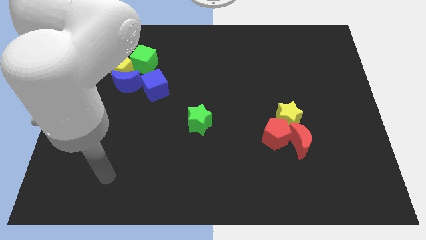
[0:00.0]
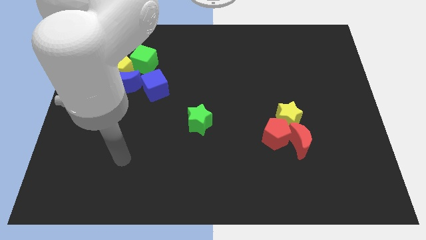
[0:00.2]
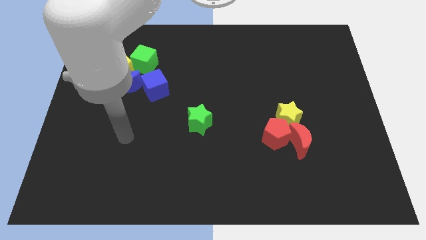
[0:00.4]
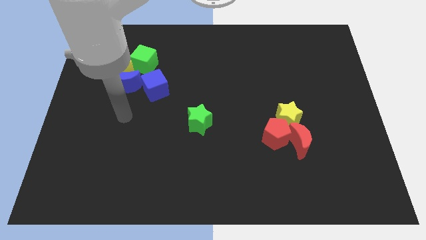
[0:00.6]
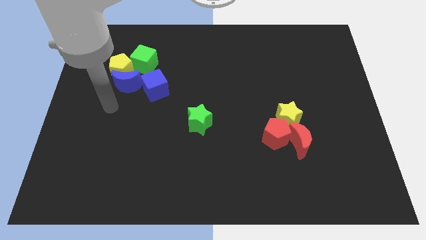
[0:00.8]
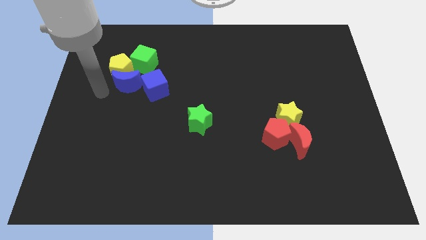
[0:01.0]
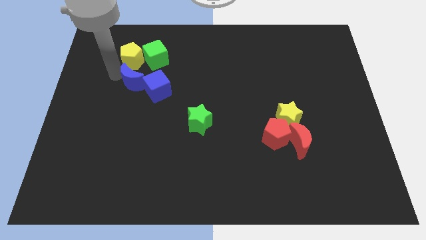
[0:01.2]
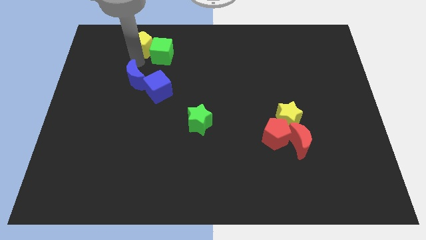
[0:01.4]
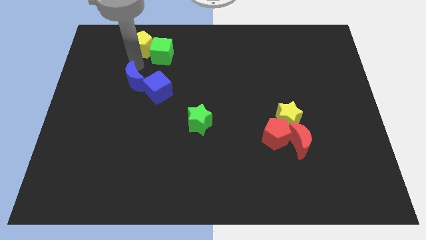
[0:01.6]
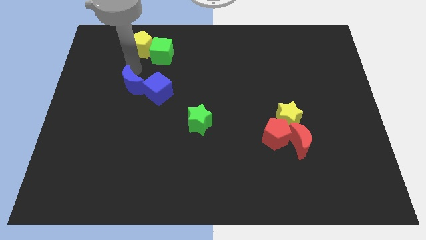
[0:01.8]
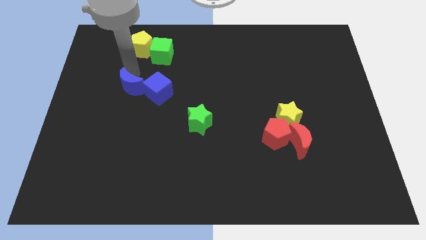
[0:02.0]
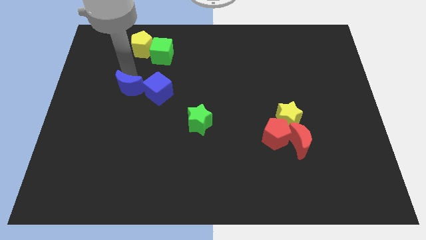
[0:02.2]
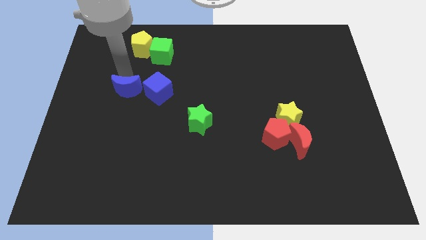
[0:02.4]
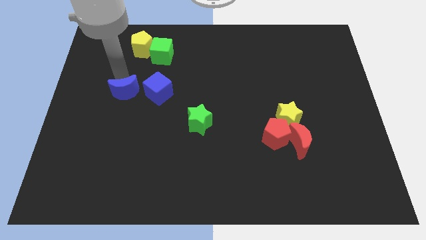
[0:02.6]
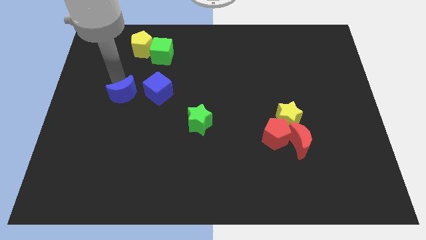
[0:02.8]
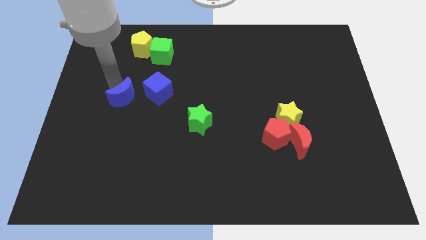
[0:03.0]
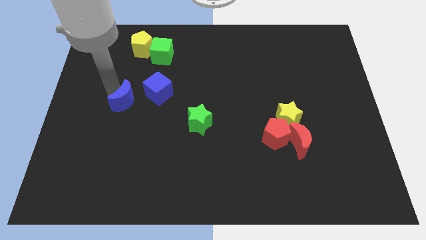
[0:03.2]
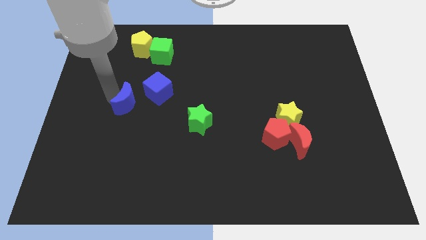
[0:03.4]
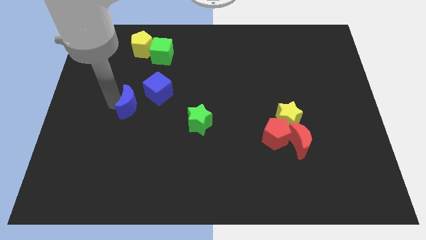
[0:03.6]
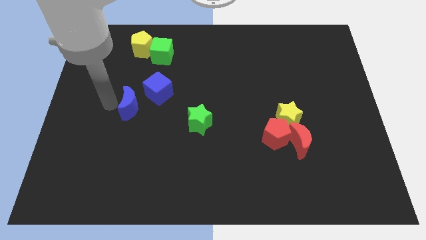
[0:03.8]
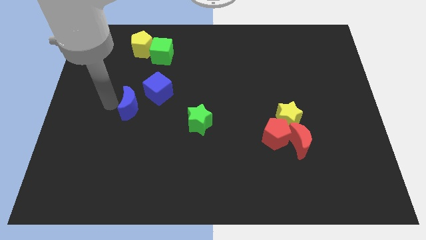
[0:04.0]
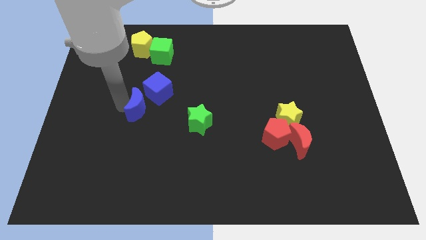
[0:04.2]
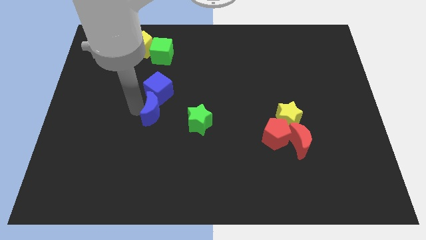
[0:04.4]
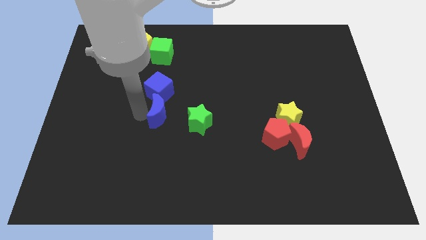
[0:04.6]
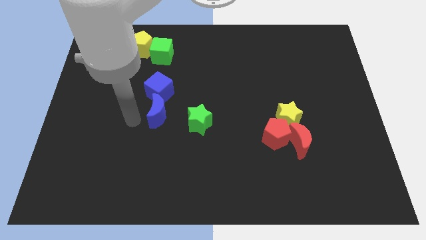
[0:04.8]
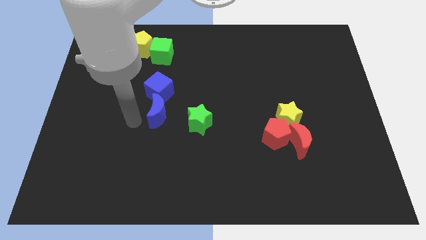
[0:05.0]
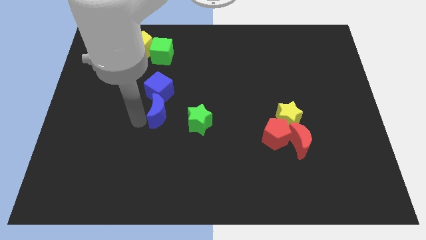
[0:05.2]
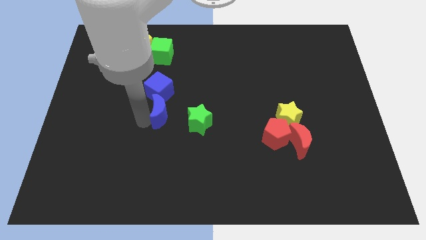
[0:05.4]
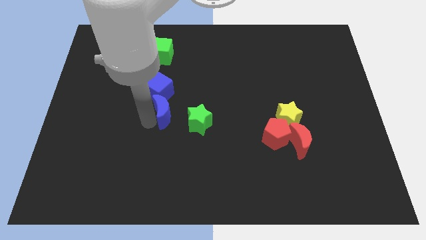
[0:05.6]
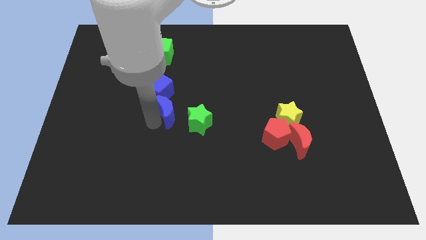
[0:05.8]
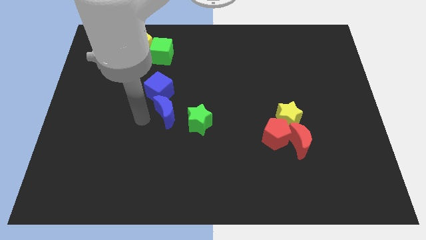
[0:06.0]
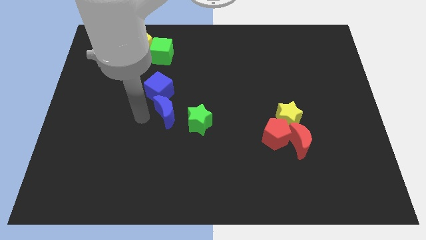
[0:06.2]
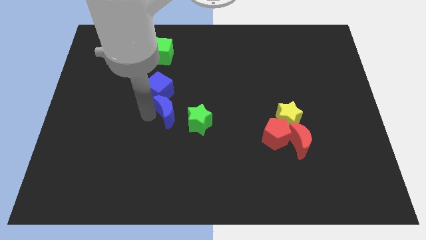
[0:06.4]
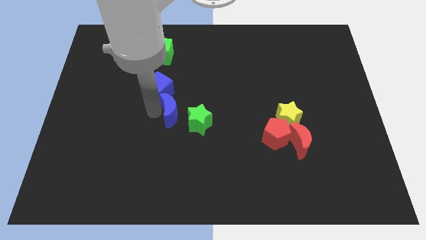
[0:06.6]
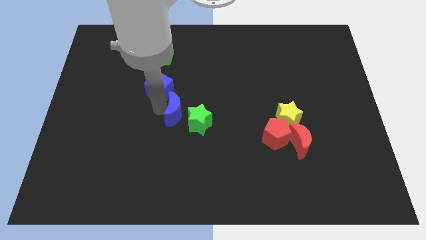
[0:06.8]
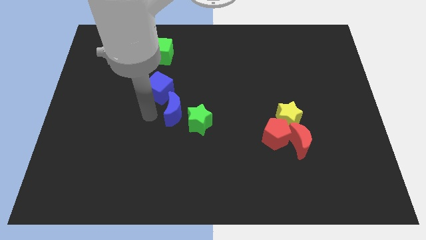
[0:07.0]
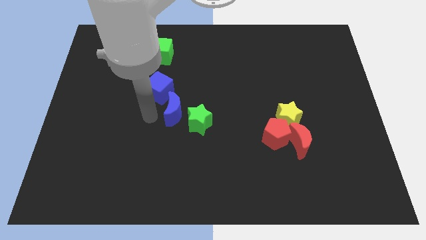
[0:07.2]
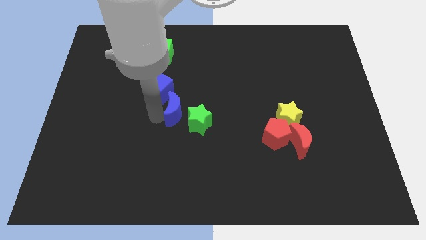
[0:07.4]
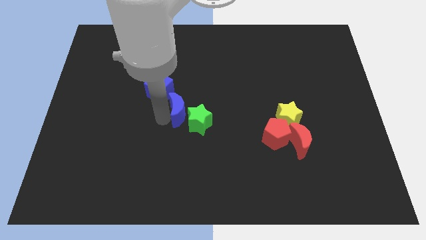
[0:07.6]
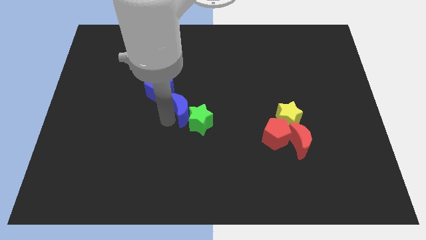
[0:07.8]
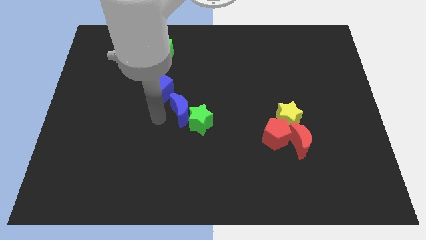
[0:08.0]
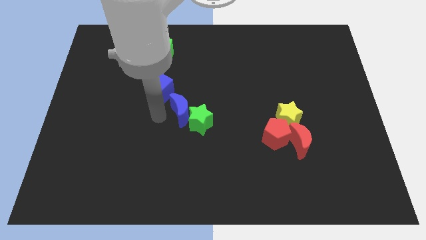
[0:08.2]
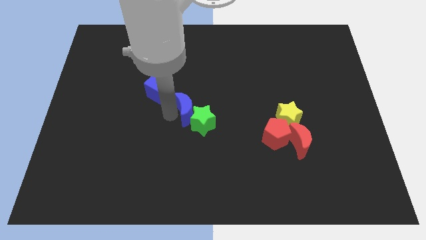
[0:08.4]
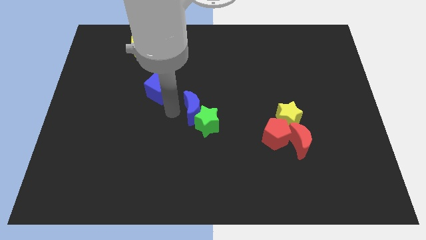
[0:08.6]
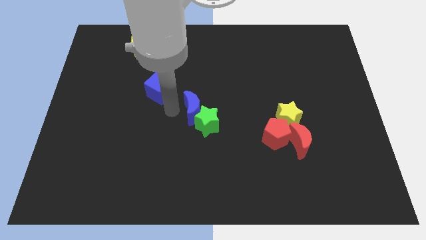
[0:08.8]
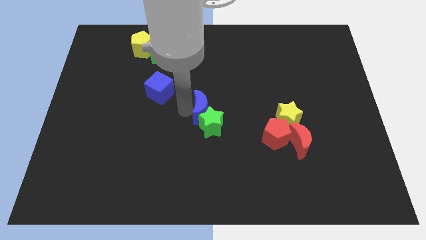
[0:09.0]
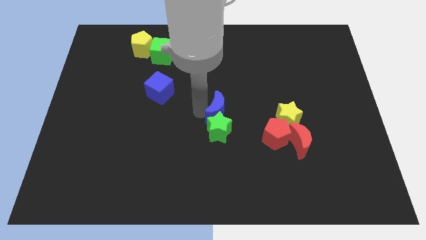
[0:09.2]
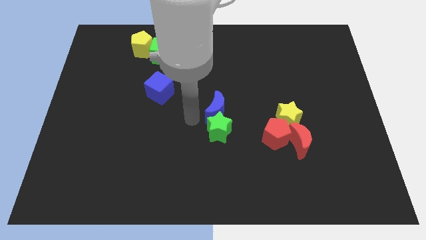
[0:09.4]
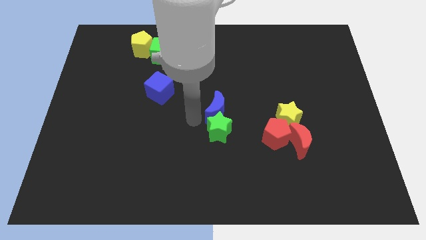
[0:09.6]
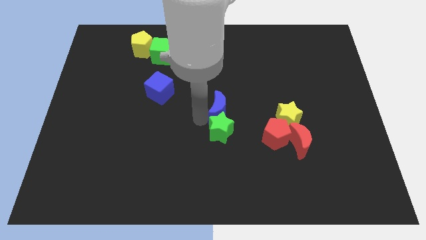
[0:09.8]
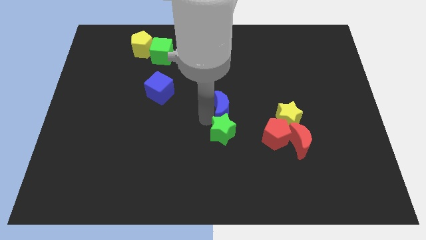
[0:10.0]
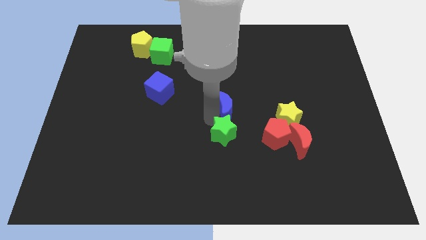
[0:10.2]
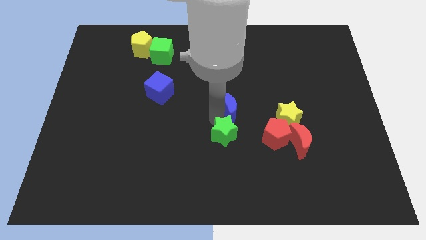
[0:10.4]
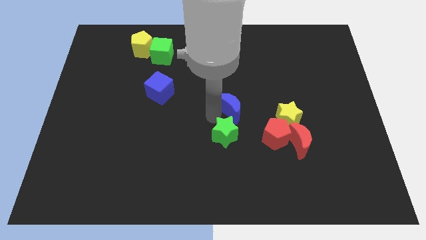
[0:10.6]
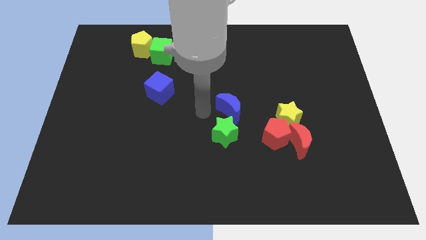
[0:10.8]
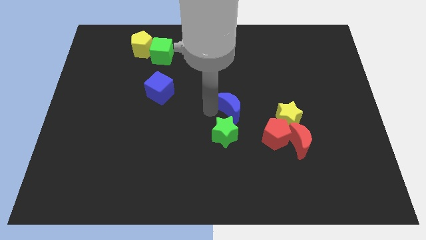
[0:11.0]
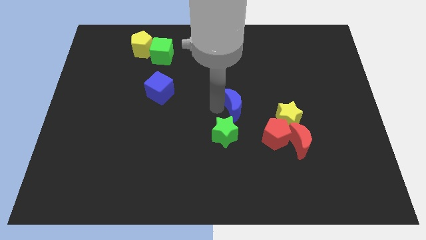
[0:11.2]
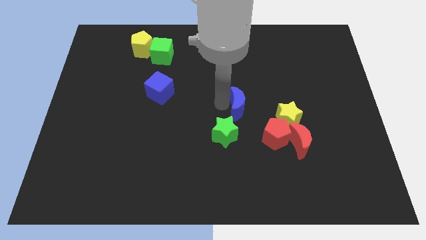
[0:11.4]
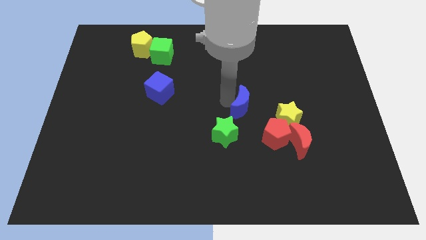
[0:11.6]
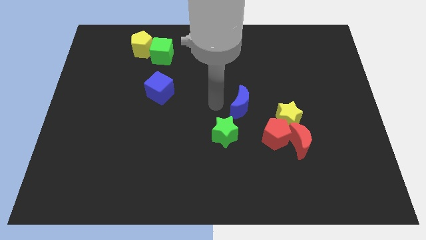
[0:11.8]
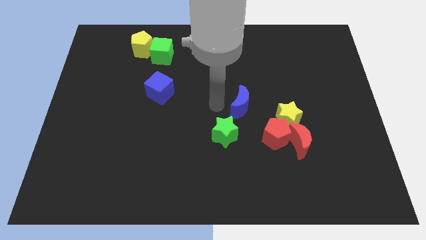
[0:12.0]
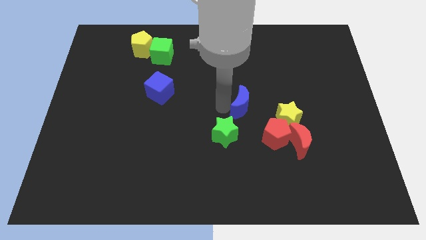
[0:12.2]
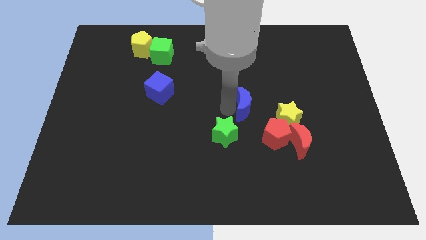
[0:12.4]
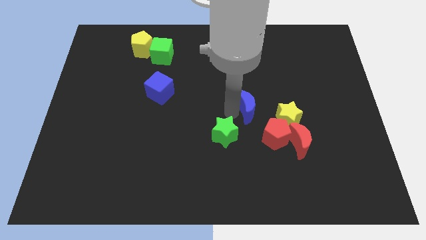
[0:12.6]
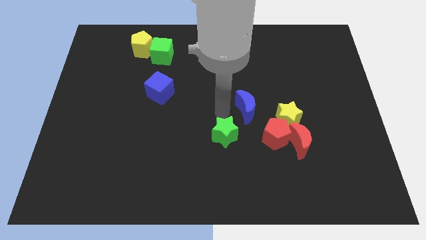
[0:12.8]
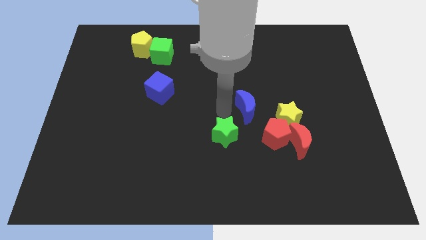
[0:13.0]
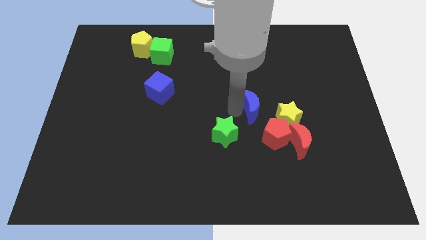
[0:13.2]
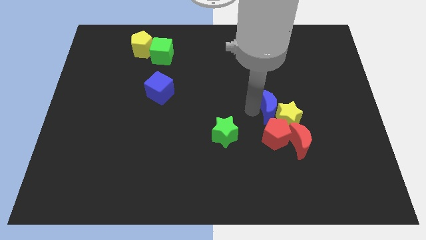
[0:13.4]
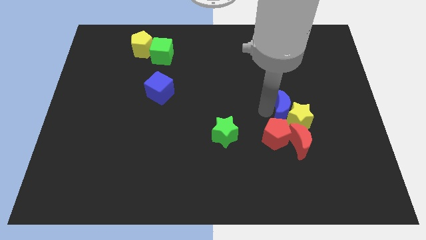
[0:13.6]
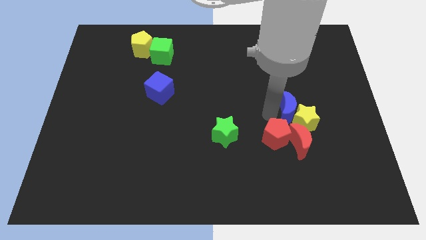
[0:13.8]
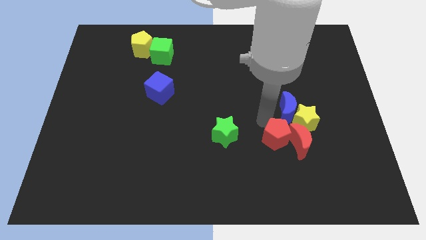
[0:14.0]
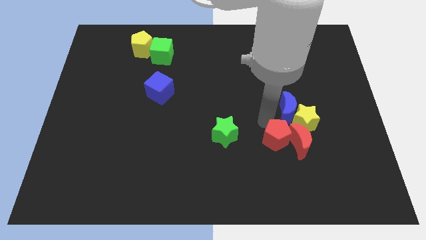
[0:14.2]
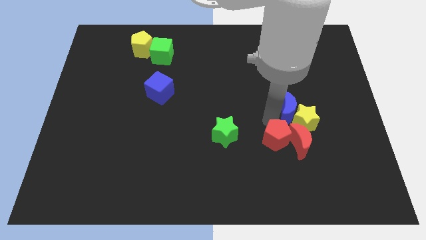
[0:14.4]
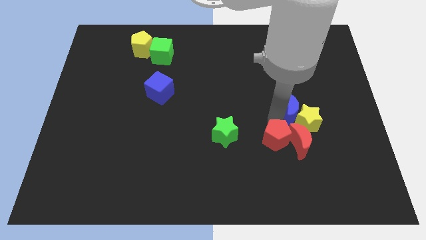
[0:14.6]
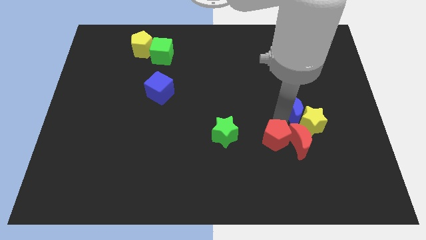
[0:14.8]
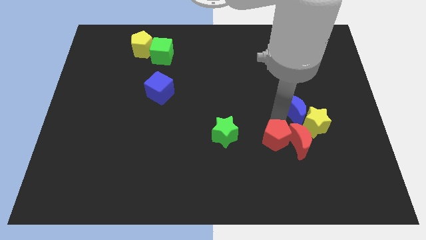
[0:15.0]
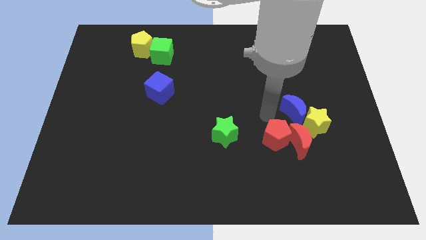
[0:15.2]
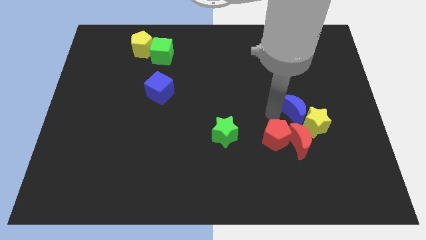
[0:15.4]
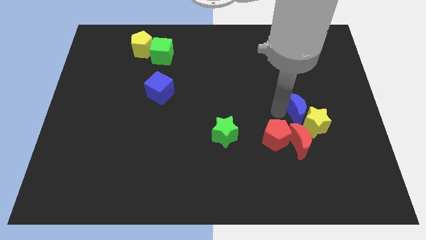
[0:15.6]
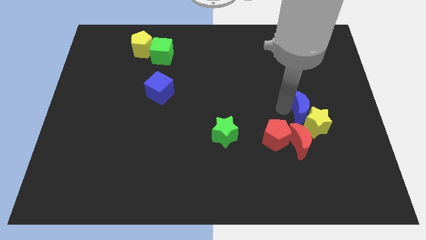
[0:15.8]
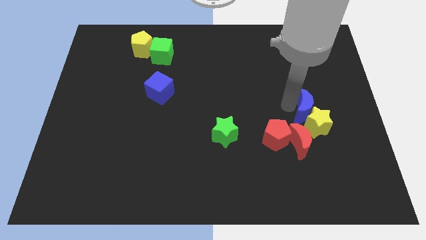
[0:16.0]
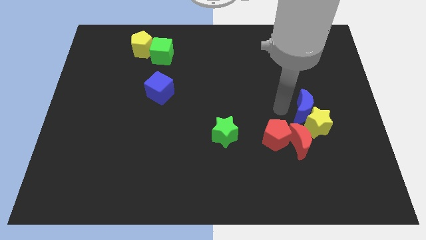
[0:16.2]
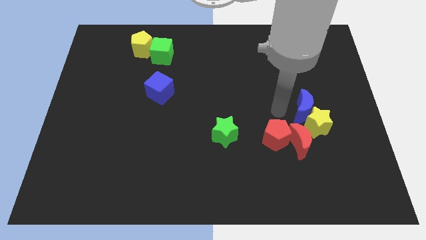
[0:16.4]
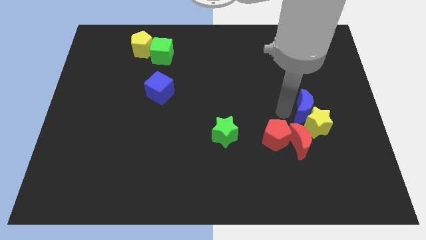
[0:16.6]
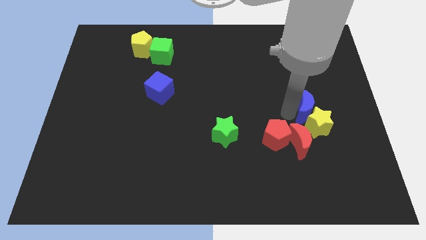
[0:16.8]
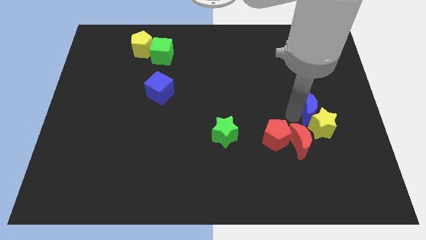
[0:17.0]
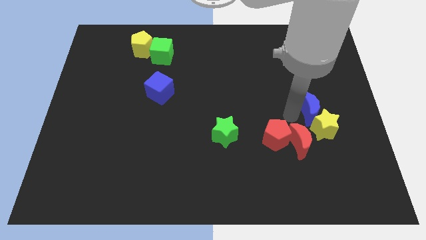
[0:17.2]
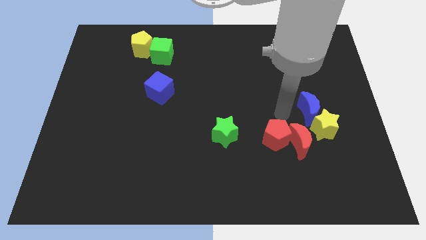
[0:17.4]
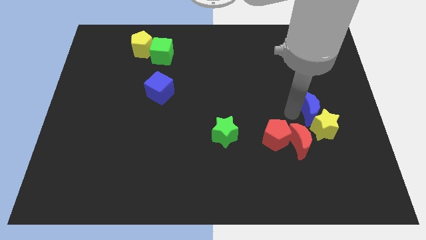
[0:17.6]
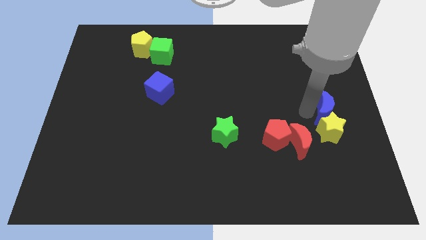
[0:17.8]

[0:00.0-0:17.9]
put the blue moon to the right side
